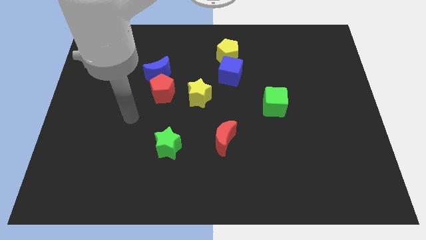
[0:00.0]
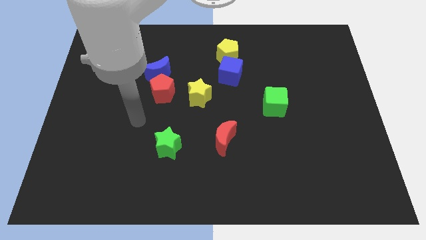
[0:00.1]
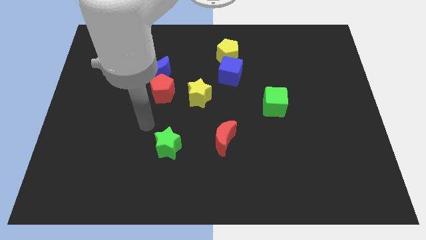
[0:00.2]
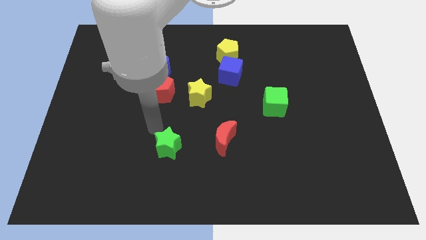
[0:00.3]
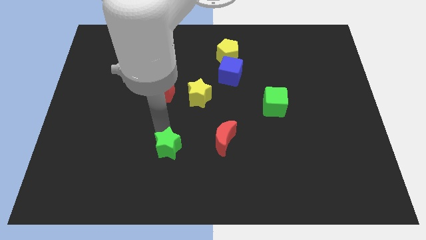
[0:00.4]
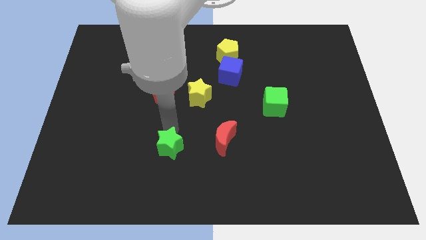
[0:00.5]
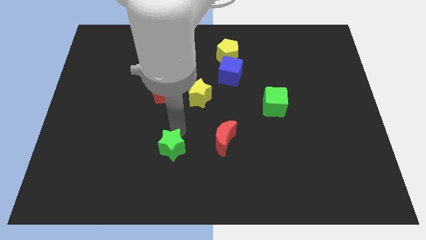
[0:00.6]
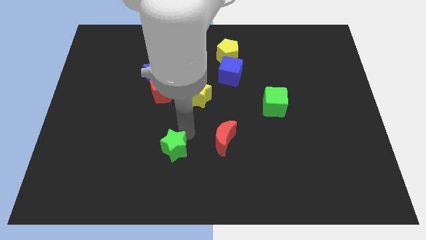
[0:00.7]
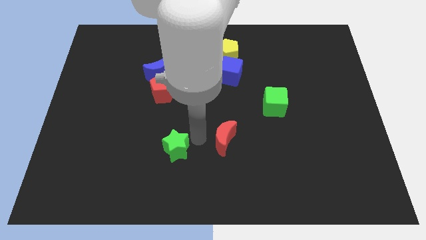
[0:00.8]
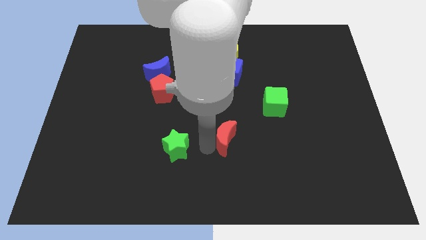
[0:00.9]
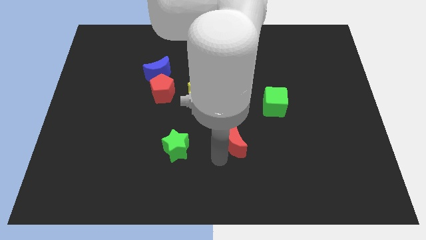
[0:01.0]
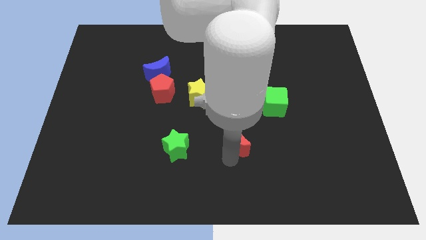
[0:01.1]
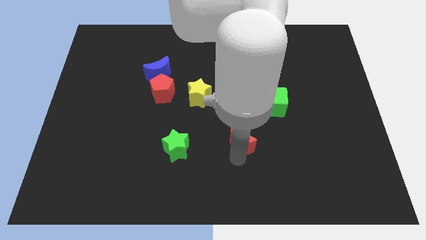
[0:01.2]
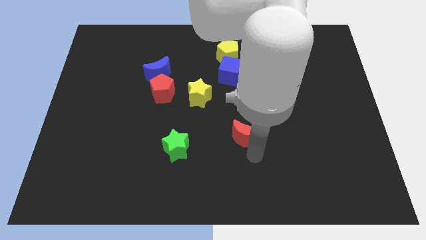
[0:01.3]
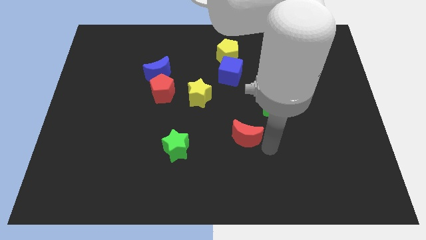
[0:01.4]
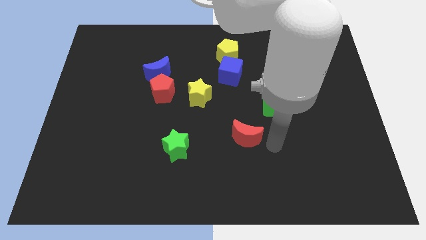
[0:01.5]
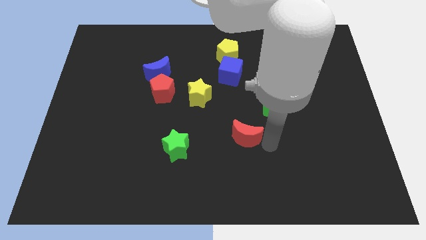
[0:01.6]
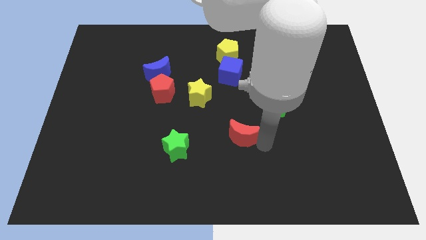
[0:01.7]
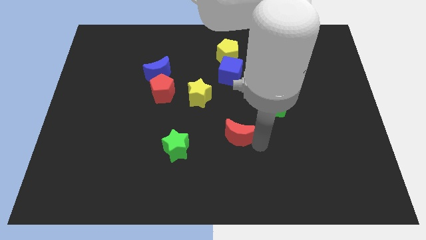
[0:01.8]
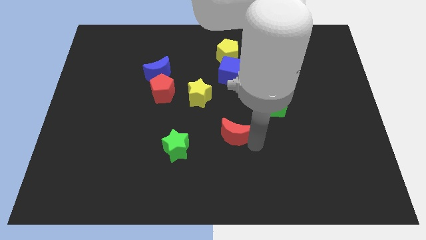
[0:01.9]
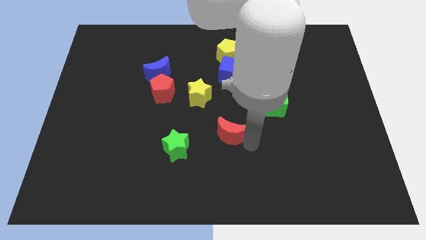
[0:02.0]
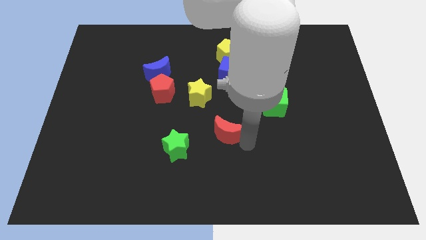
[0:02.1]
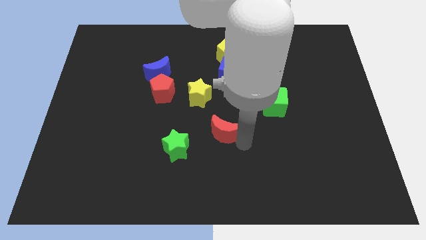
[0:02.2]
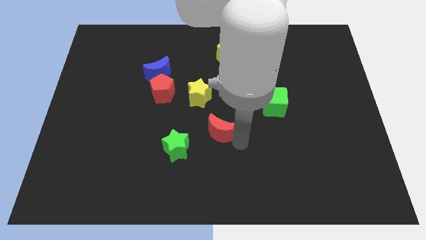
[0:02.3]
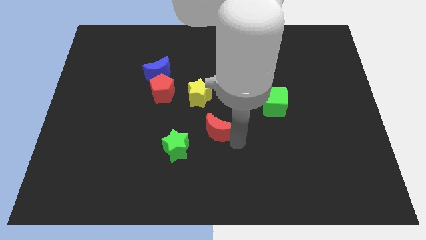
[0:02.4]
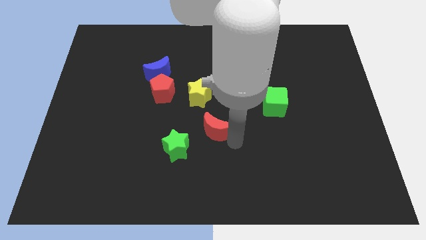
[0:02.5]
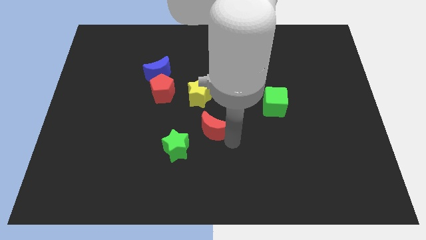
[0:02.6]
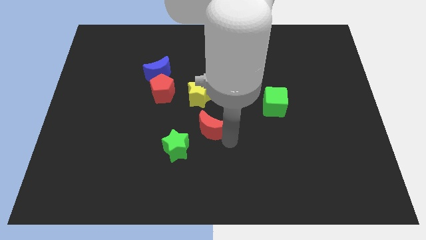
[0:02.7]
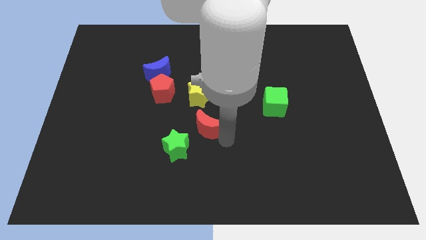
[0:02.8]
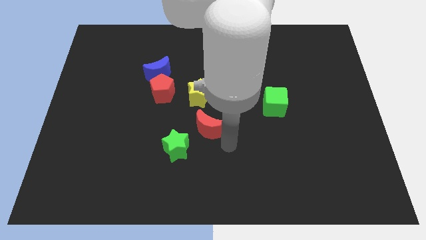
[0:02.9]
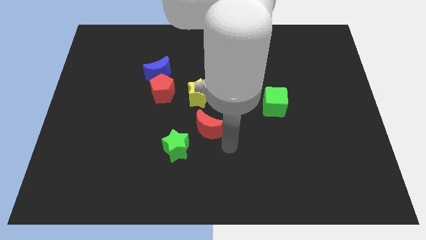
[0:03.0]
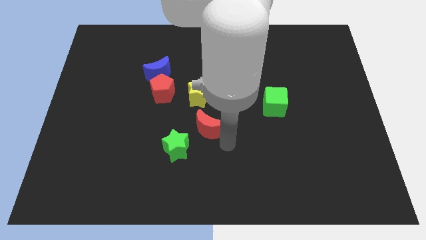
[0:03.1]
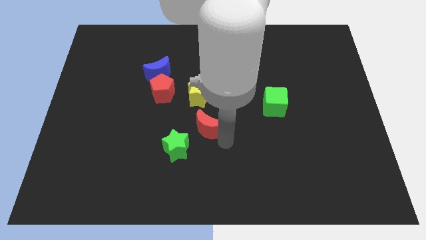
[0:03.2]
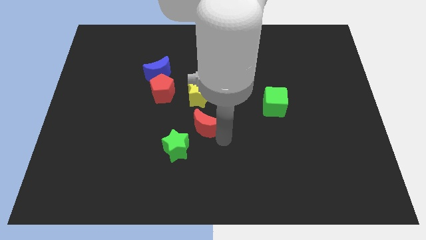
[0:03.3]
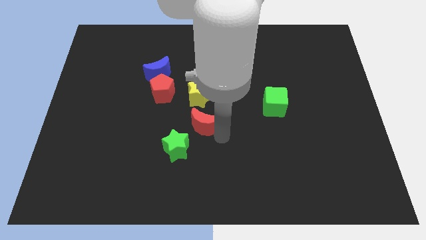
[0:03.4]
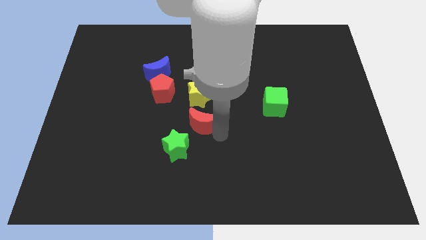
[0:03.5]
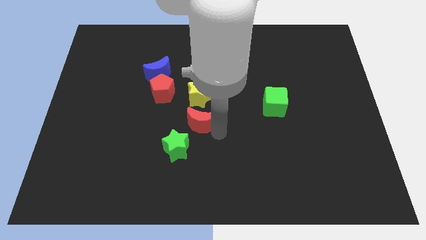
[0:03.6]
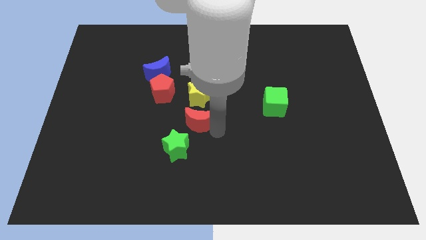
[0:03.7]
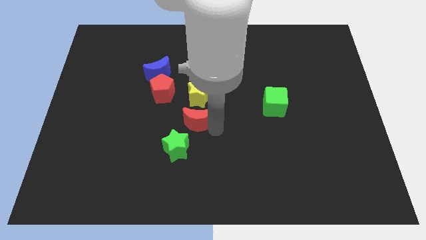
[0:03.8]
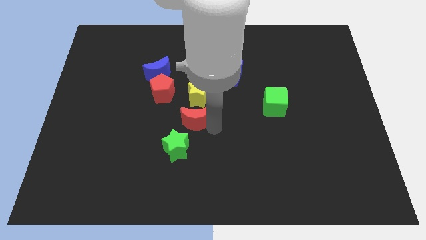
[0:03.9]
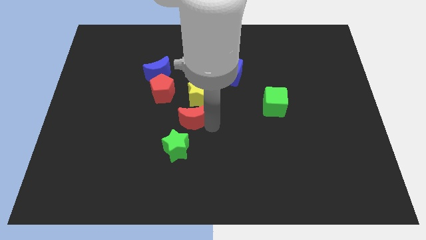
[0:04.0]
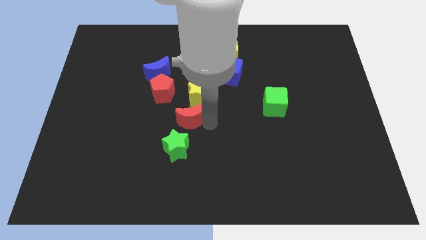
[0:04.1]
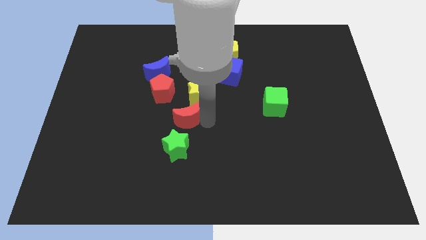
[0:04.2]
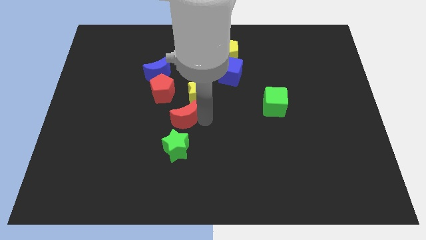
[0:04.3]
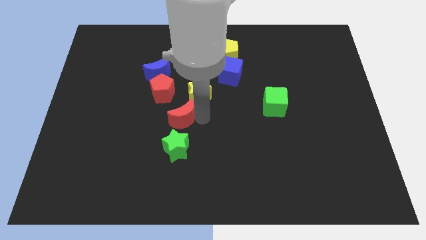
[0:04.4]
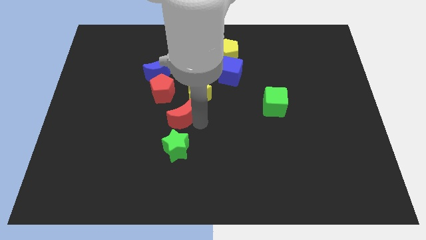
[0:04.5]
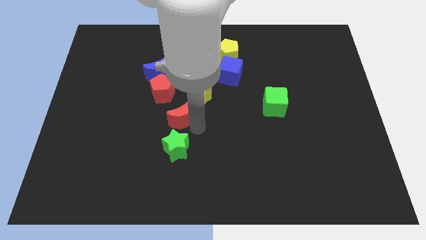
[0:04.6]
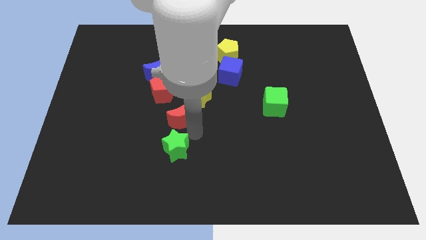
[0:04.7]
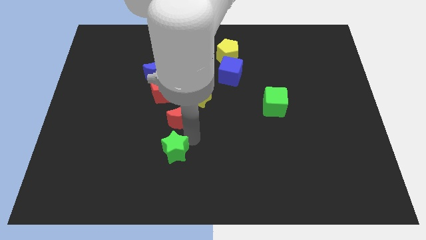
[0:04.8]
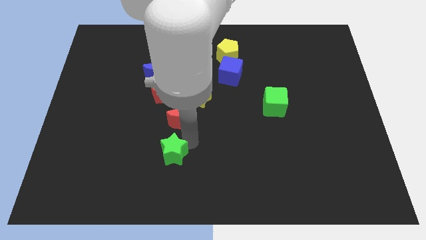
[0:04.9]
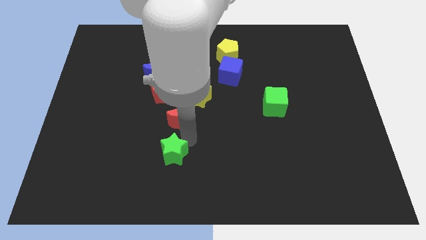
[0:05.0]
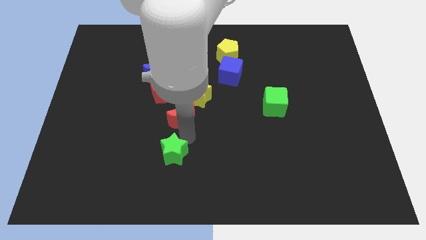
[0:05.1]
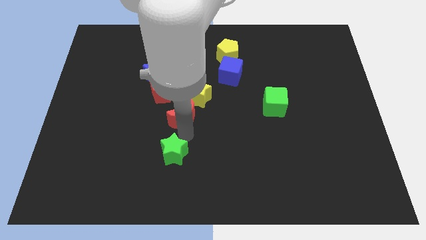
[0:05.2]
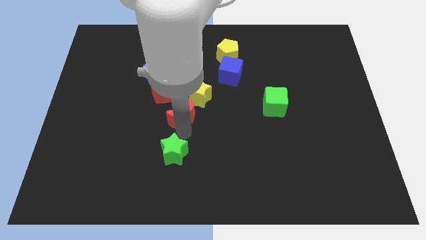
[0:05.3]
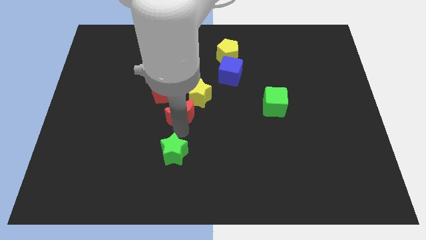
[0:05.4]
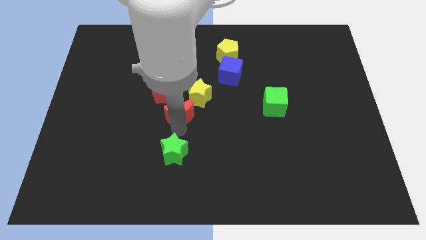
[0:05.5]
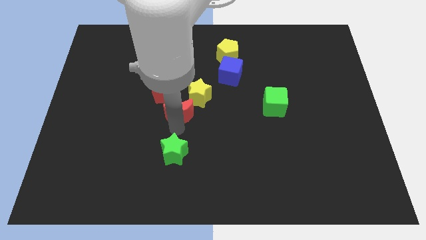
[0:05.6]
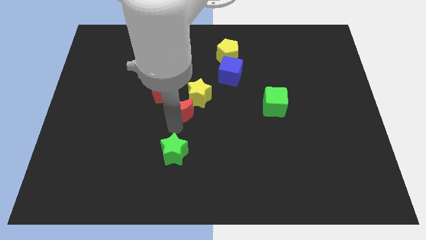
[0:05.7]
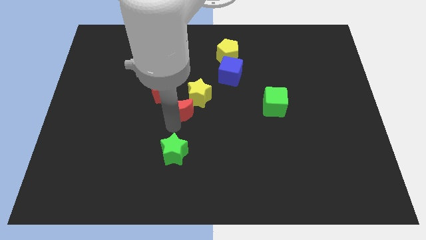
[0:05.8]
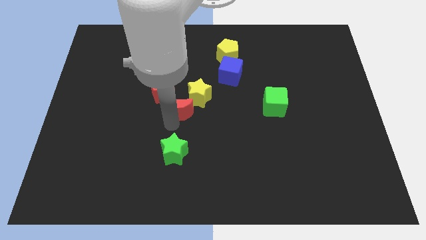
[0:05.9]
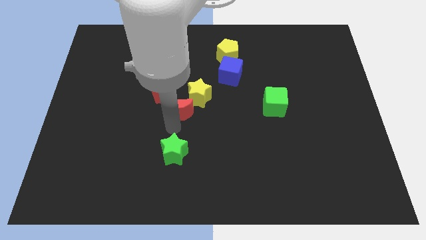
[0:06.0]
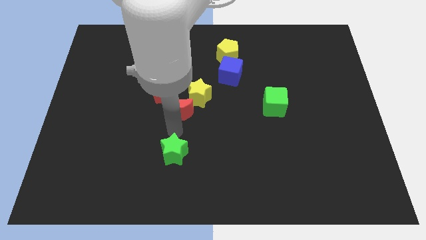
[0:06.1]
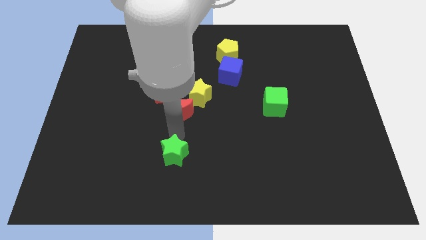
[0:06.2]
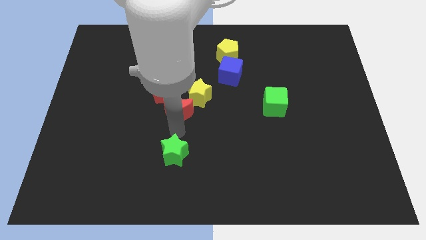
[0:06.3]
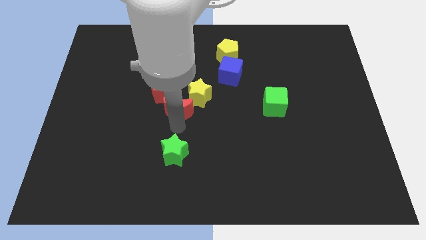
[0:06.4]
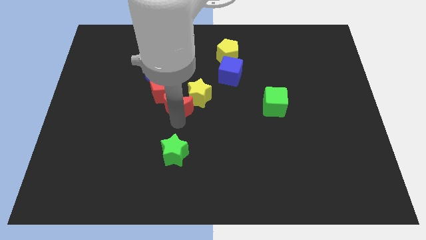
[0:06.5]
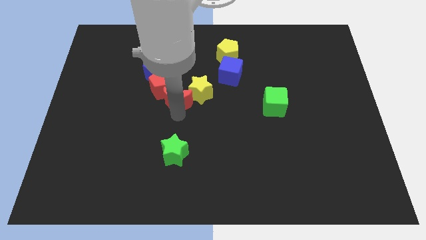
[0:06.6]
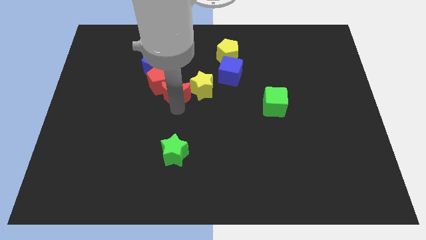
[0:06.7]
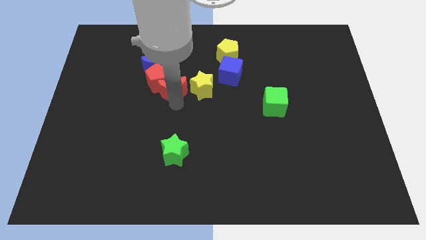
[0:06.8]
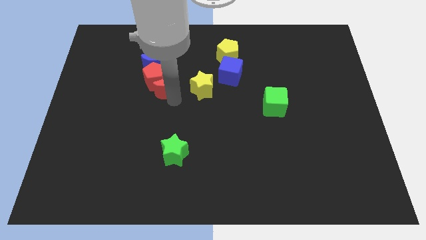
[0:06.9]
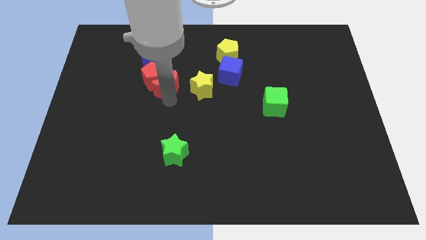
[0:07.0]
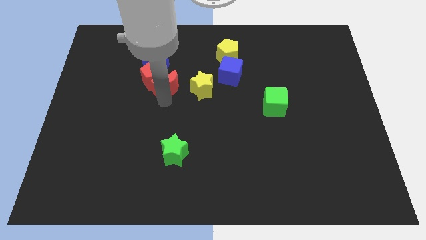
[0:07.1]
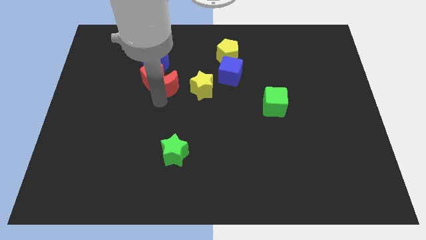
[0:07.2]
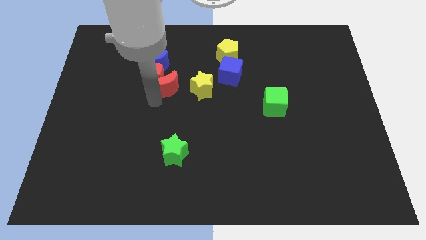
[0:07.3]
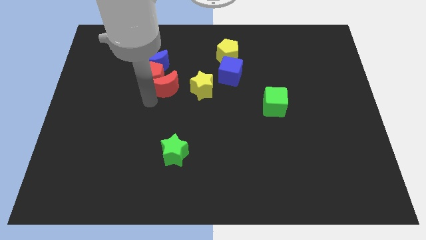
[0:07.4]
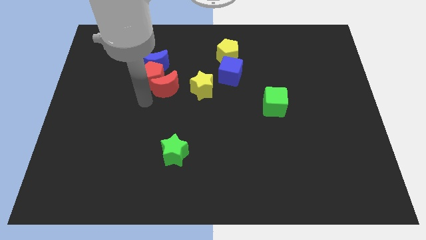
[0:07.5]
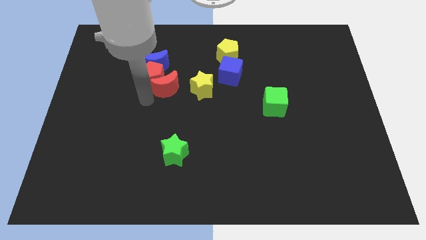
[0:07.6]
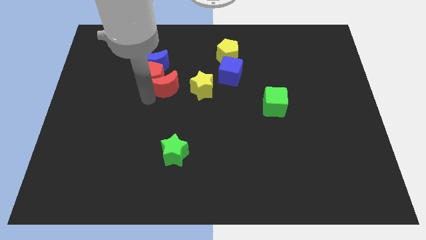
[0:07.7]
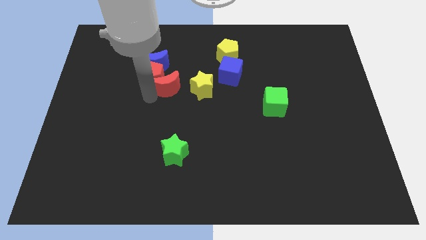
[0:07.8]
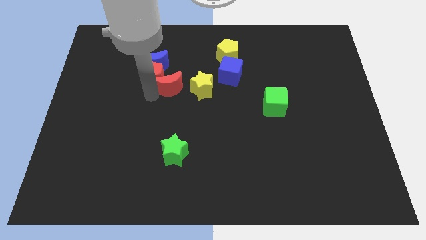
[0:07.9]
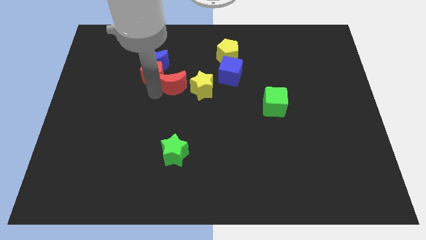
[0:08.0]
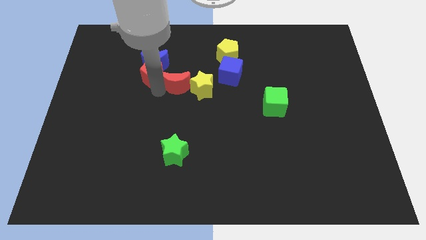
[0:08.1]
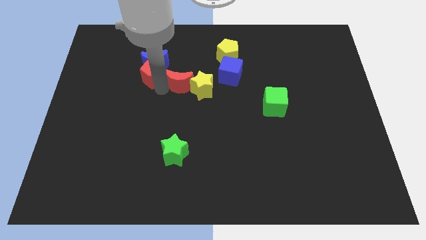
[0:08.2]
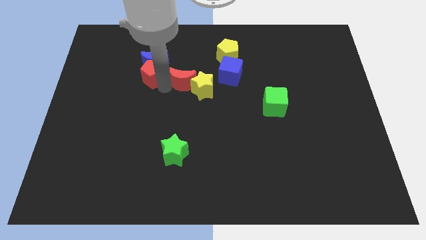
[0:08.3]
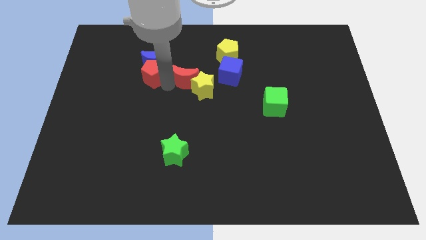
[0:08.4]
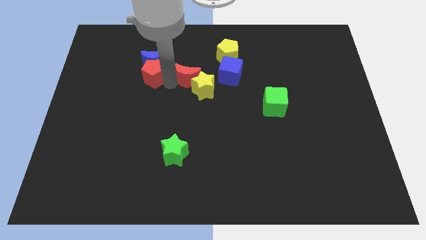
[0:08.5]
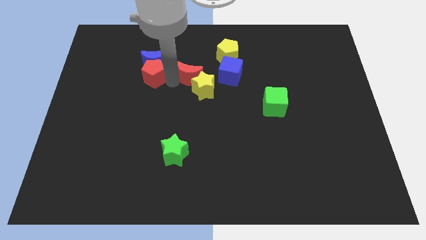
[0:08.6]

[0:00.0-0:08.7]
slide the red moon to the bottom left side of the yellow pentagon
